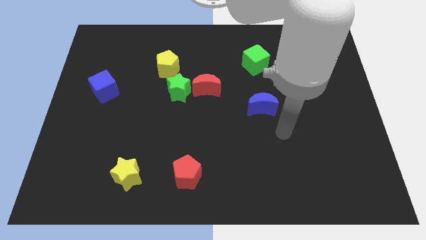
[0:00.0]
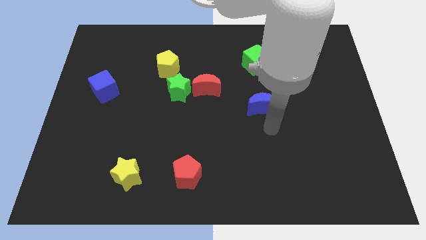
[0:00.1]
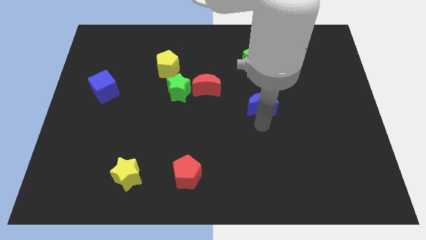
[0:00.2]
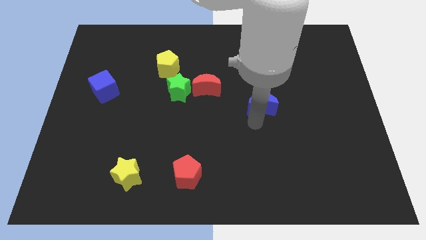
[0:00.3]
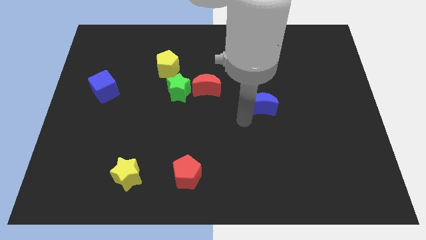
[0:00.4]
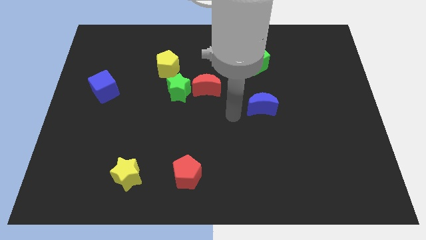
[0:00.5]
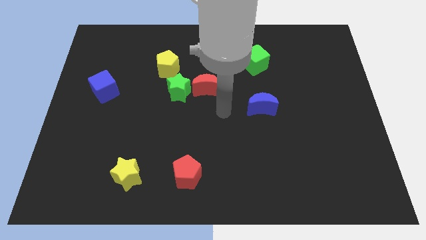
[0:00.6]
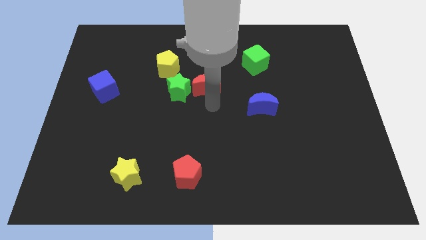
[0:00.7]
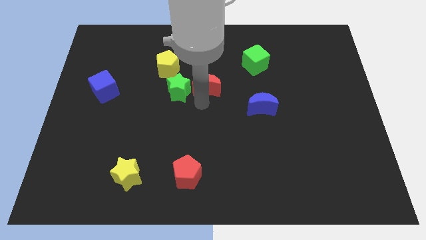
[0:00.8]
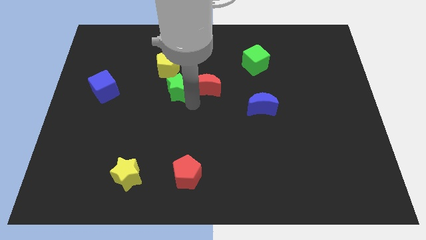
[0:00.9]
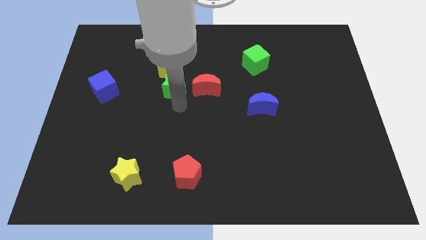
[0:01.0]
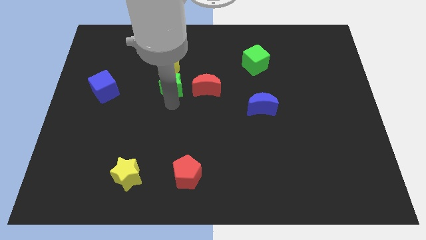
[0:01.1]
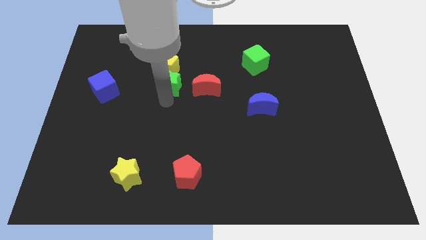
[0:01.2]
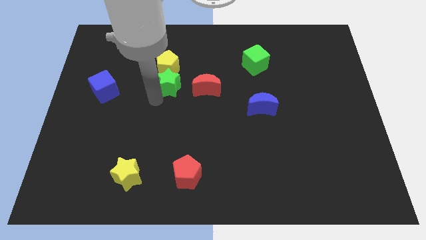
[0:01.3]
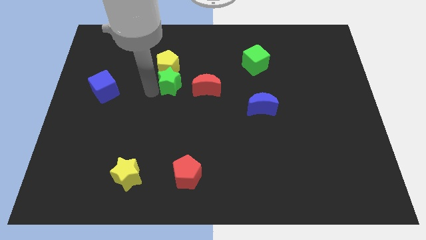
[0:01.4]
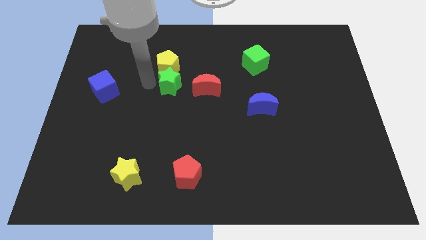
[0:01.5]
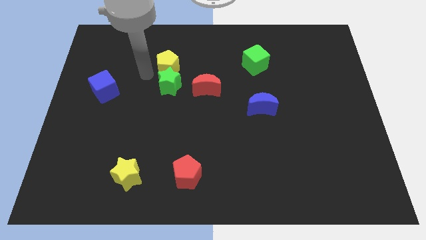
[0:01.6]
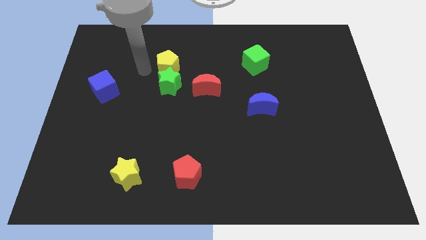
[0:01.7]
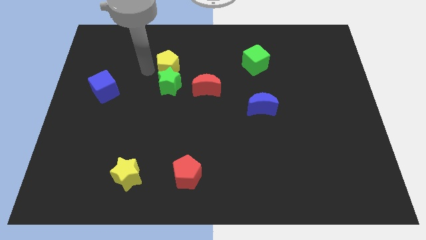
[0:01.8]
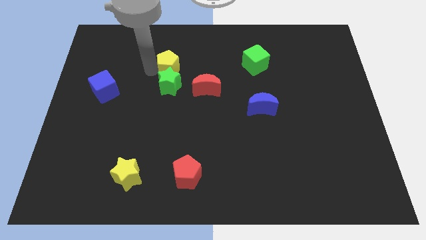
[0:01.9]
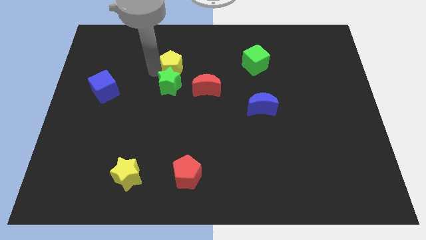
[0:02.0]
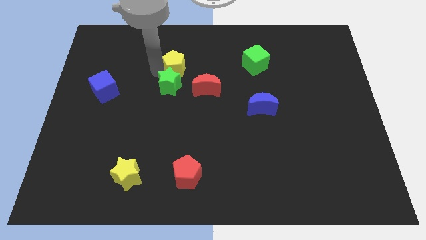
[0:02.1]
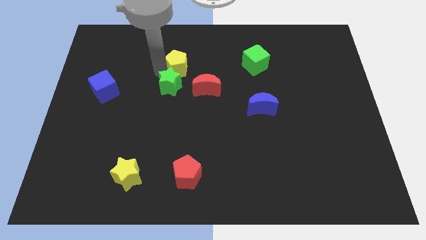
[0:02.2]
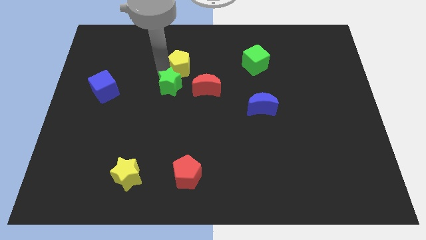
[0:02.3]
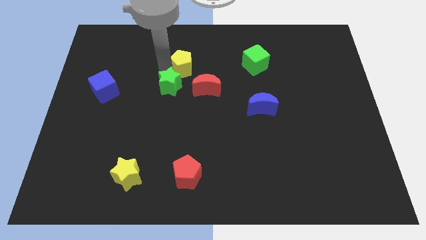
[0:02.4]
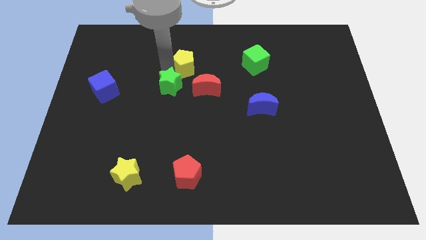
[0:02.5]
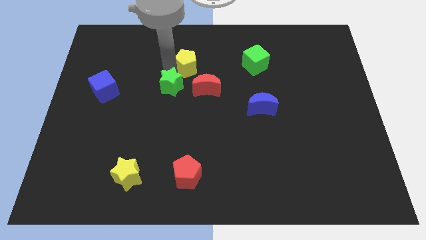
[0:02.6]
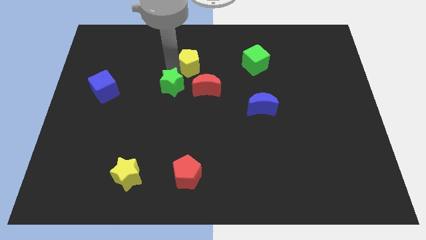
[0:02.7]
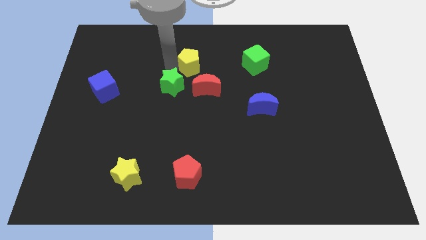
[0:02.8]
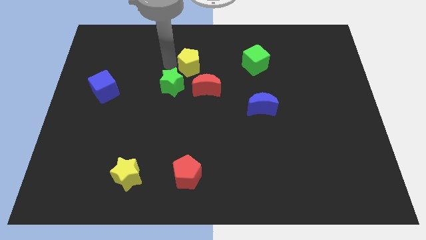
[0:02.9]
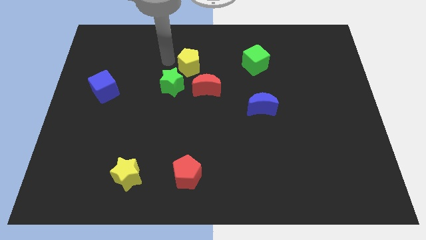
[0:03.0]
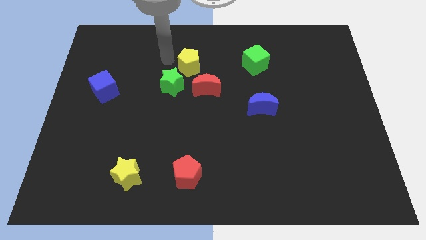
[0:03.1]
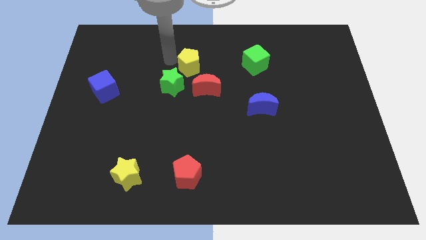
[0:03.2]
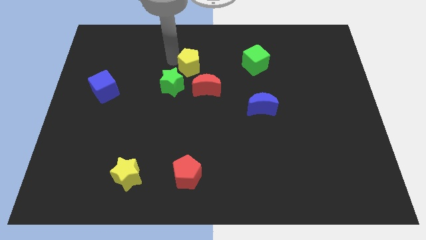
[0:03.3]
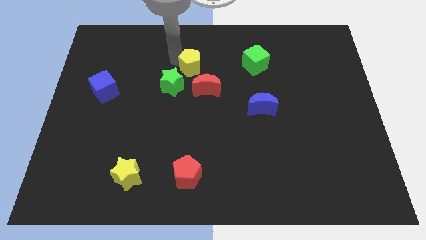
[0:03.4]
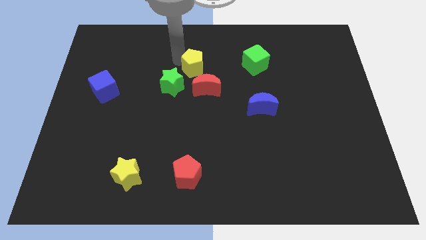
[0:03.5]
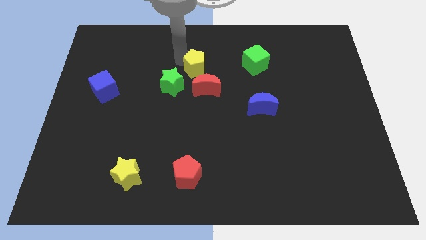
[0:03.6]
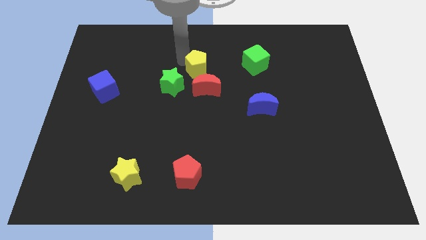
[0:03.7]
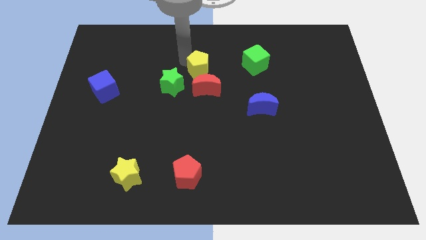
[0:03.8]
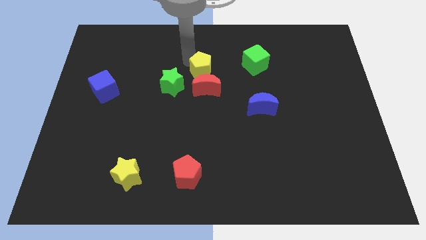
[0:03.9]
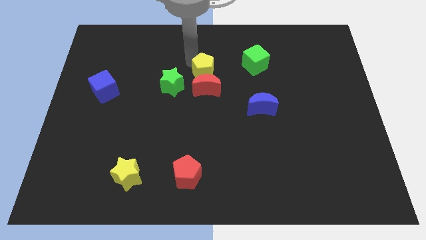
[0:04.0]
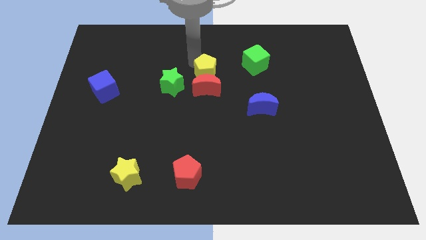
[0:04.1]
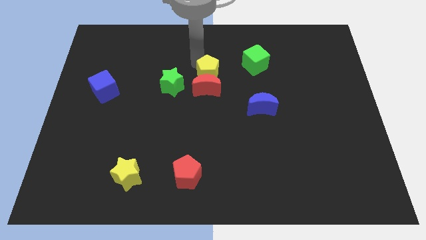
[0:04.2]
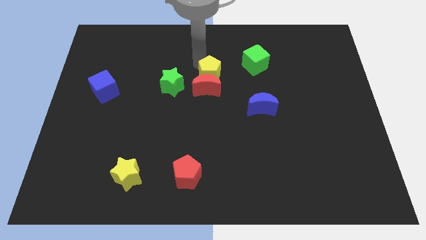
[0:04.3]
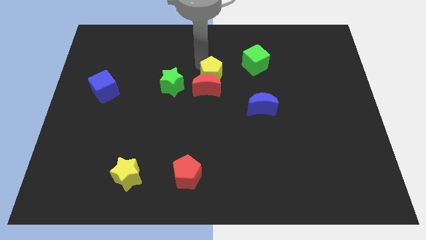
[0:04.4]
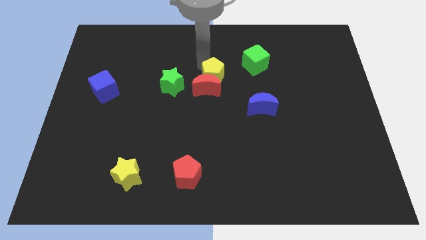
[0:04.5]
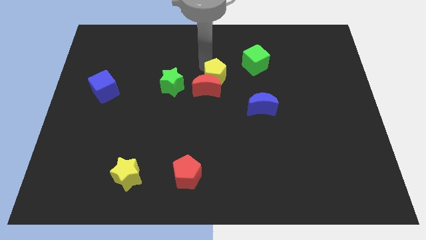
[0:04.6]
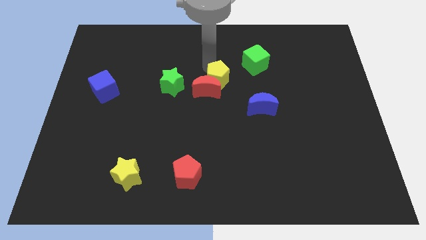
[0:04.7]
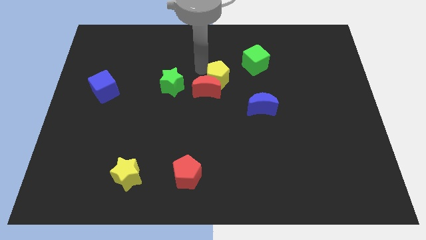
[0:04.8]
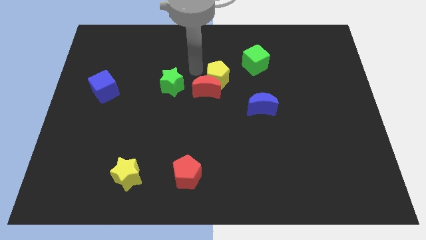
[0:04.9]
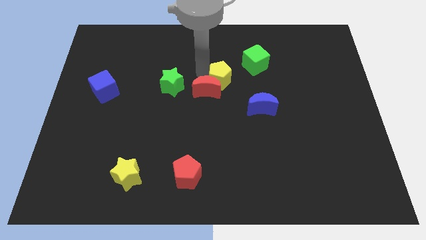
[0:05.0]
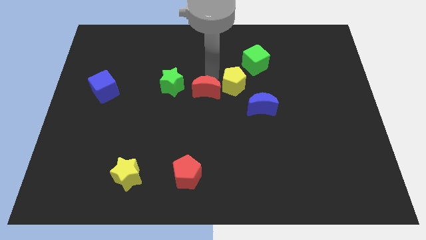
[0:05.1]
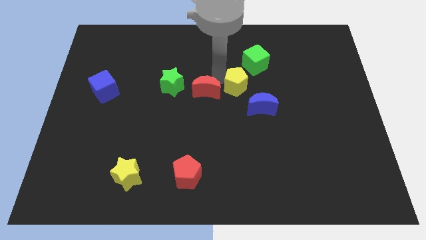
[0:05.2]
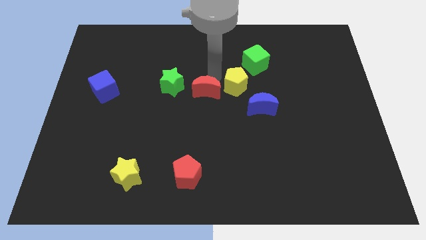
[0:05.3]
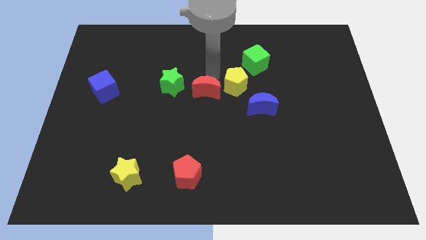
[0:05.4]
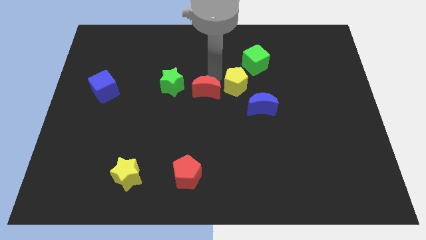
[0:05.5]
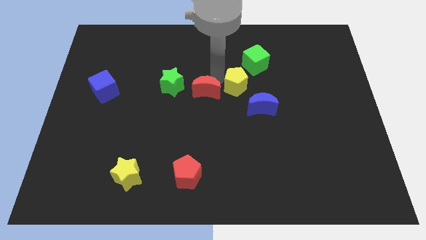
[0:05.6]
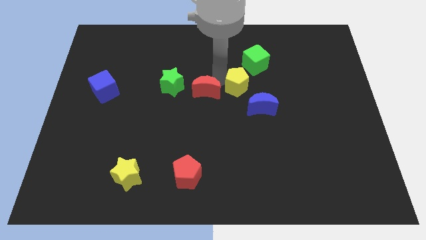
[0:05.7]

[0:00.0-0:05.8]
slide the yellow pentagon to the bottom of the green cube

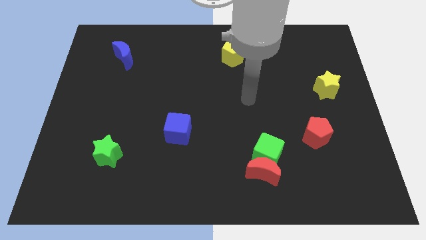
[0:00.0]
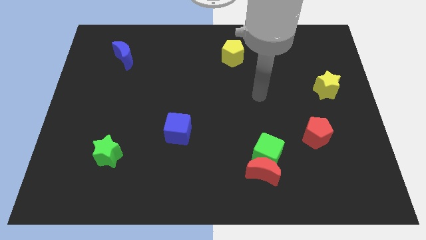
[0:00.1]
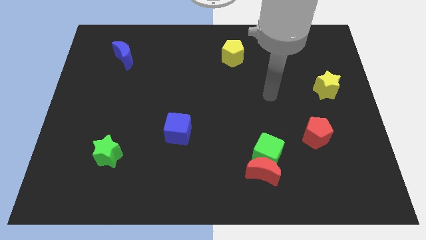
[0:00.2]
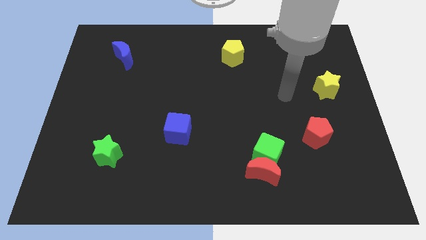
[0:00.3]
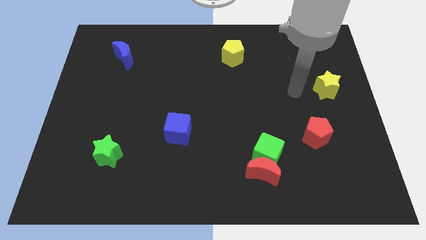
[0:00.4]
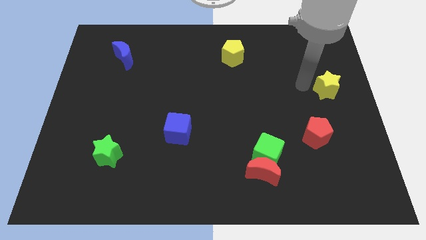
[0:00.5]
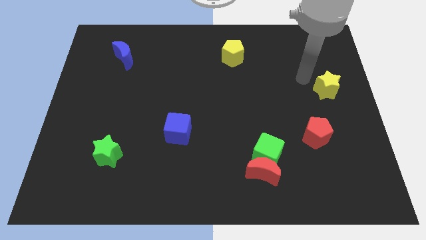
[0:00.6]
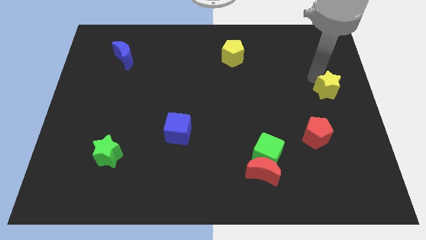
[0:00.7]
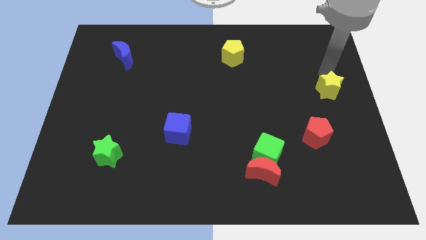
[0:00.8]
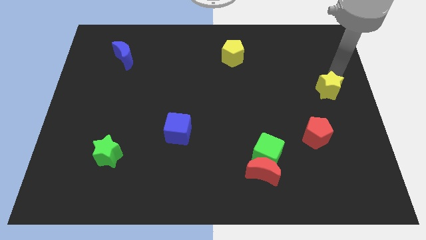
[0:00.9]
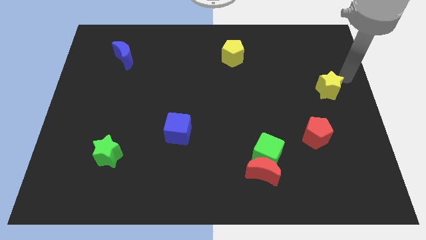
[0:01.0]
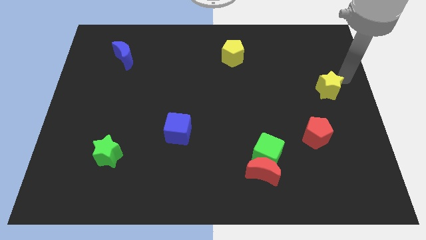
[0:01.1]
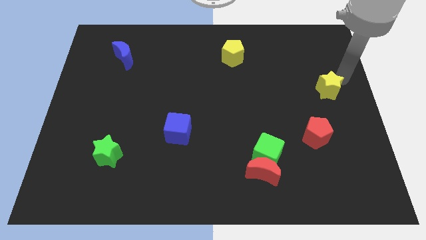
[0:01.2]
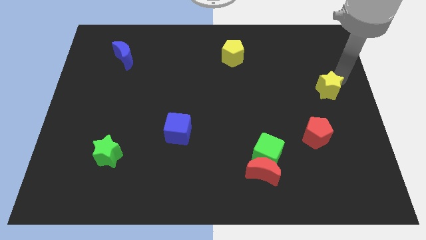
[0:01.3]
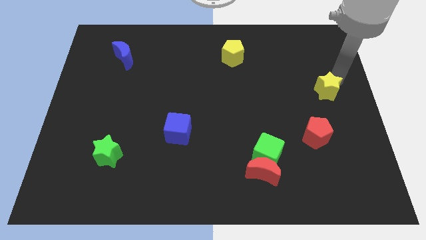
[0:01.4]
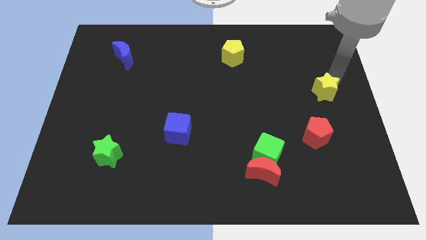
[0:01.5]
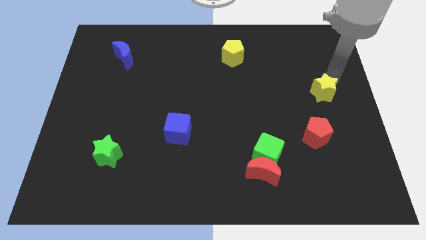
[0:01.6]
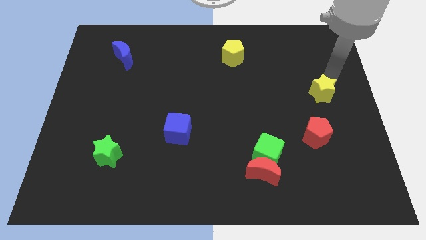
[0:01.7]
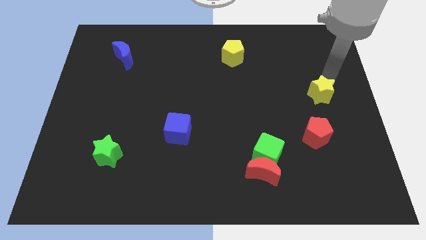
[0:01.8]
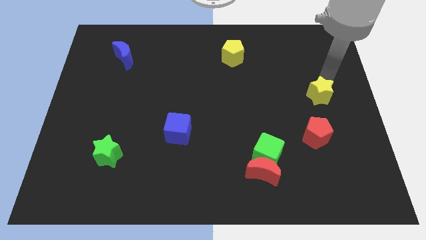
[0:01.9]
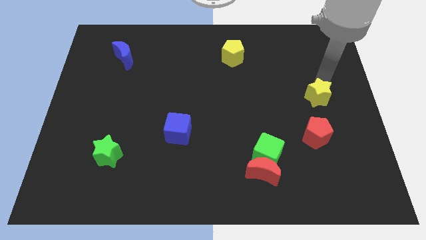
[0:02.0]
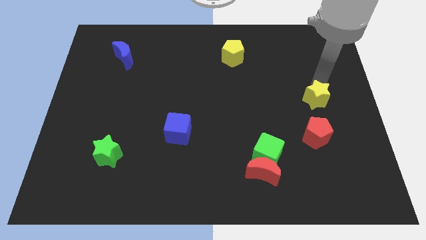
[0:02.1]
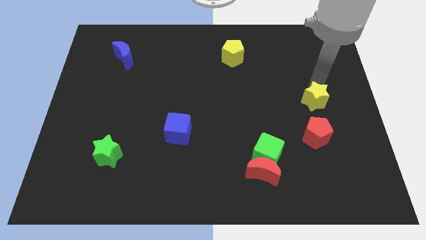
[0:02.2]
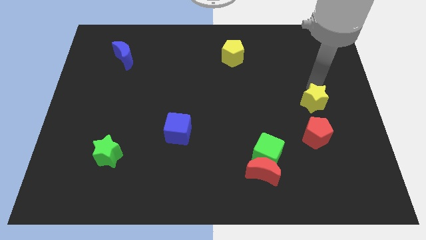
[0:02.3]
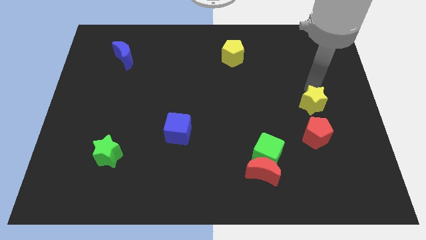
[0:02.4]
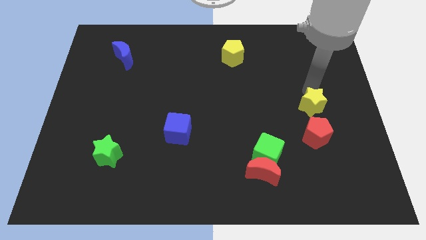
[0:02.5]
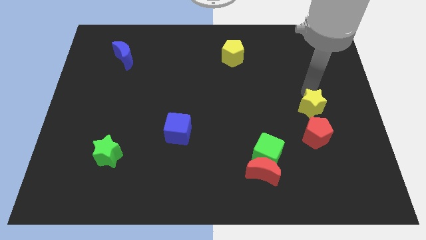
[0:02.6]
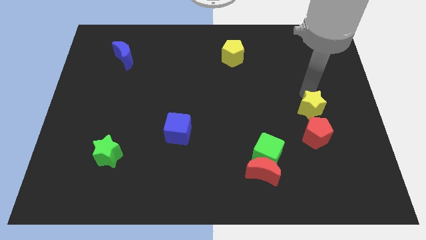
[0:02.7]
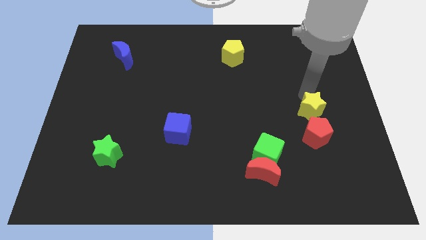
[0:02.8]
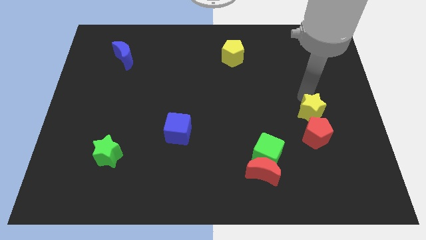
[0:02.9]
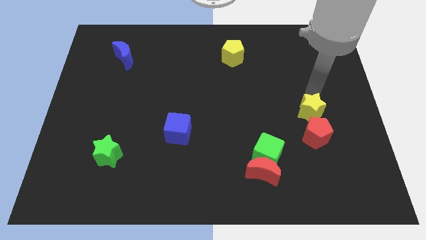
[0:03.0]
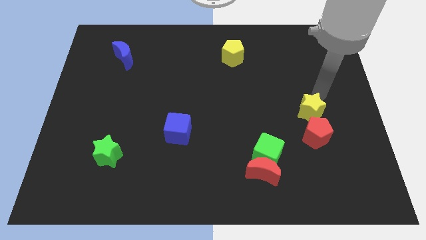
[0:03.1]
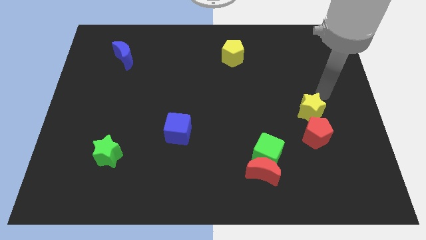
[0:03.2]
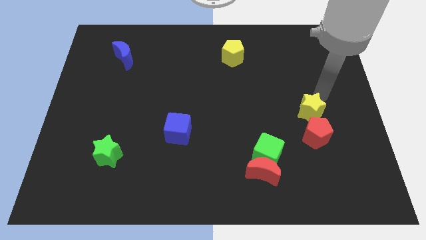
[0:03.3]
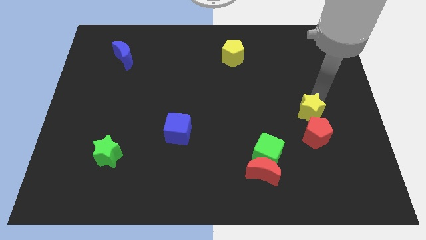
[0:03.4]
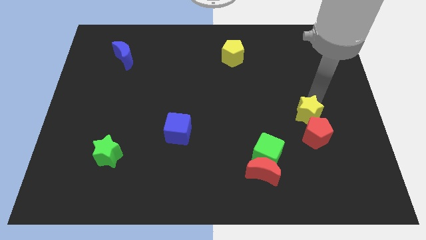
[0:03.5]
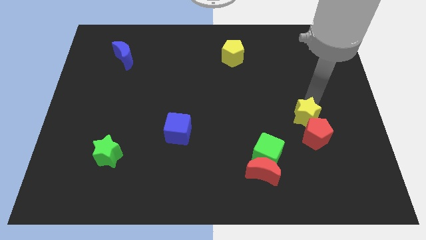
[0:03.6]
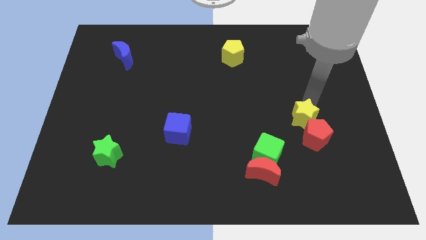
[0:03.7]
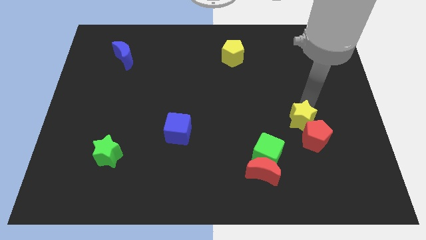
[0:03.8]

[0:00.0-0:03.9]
move the yellow star diagonally up and to the right of the green cube
